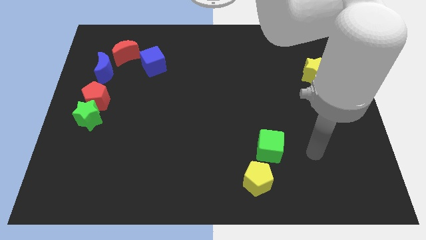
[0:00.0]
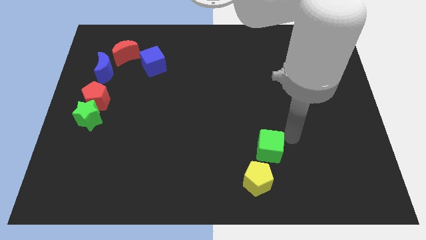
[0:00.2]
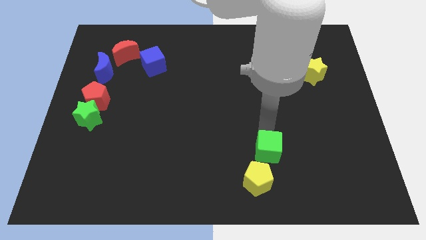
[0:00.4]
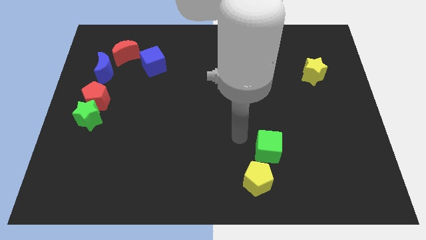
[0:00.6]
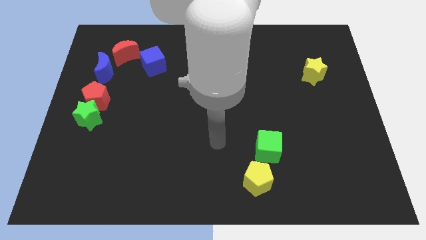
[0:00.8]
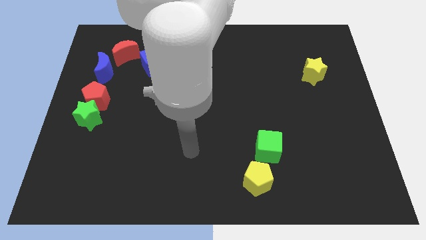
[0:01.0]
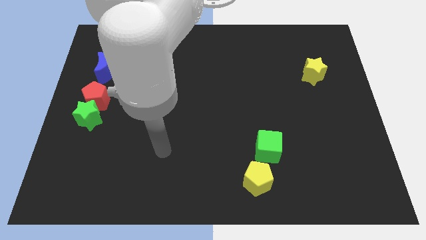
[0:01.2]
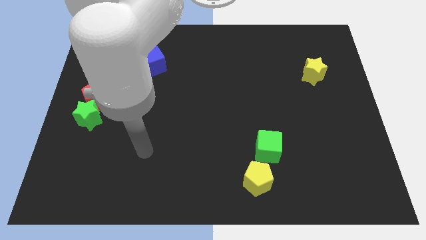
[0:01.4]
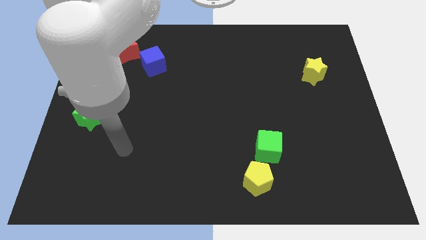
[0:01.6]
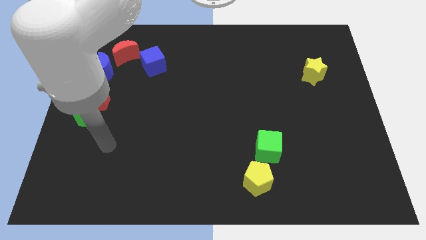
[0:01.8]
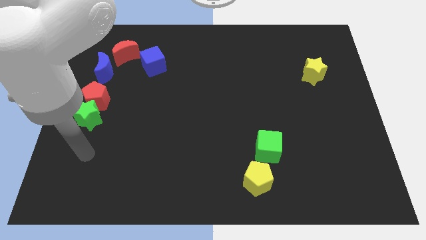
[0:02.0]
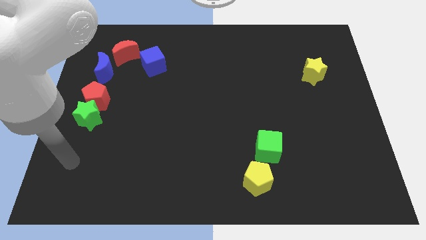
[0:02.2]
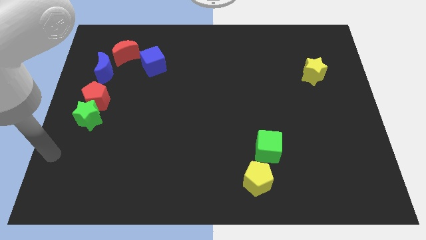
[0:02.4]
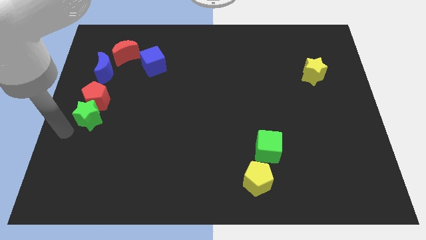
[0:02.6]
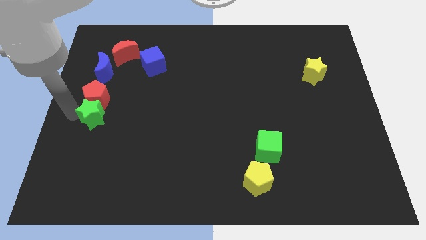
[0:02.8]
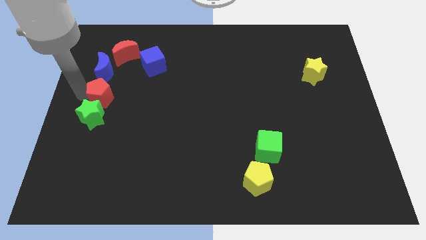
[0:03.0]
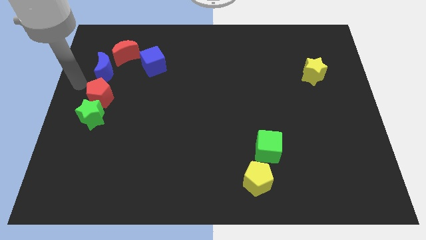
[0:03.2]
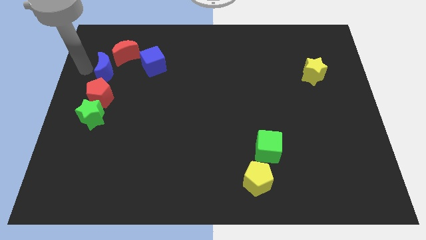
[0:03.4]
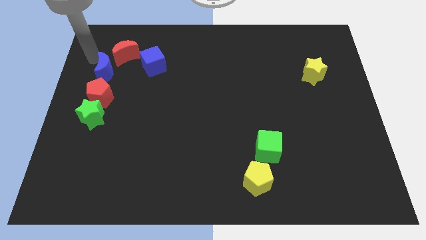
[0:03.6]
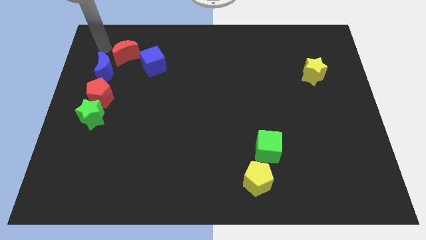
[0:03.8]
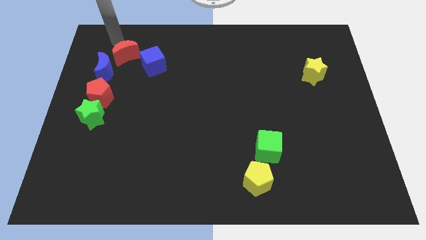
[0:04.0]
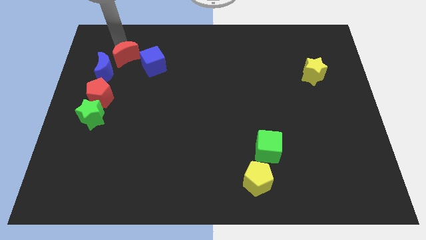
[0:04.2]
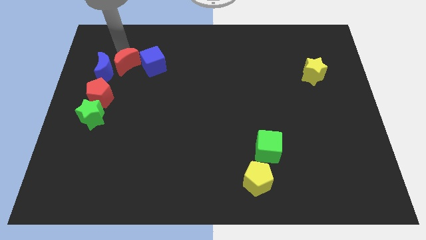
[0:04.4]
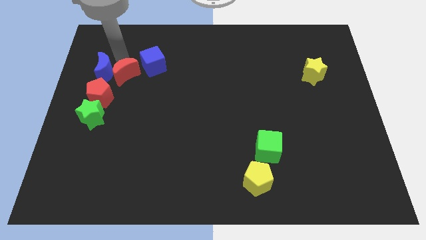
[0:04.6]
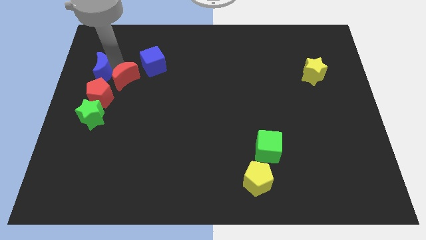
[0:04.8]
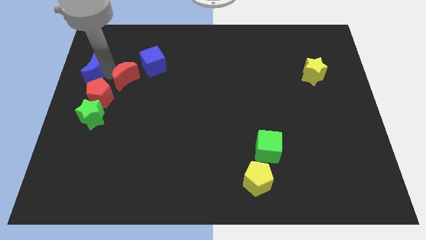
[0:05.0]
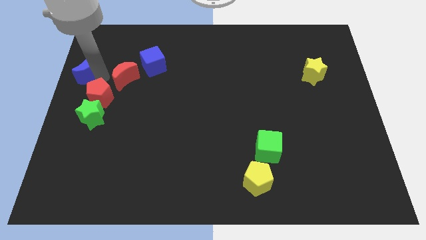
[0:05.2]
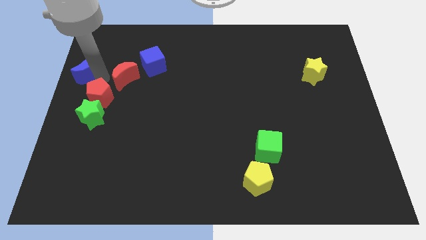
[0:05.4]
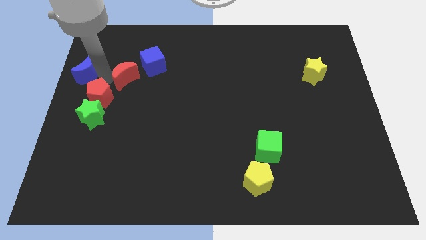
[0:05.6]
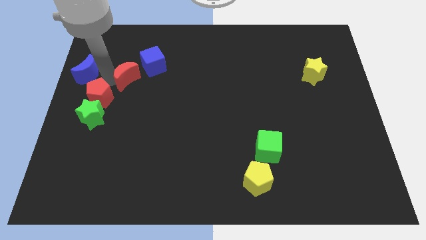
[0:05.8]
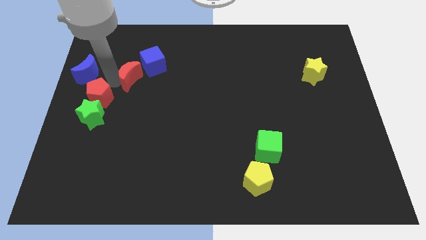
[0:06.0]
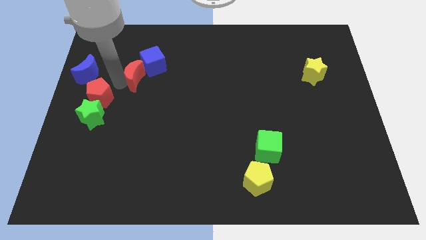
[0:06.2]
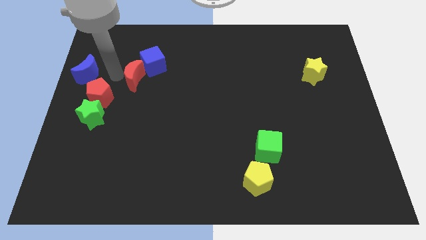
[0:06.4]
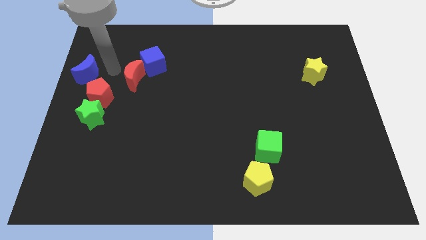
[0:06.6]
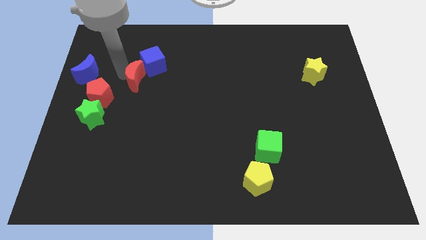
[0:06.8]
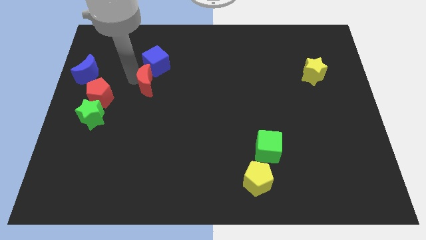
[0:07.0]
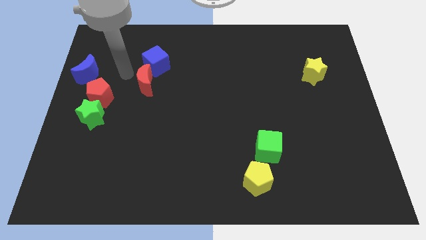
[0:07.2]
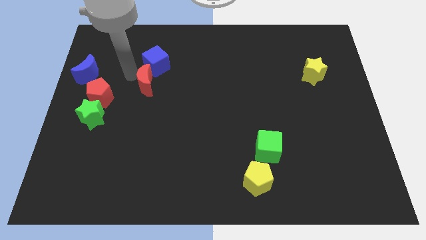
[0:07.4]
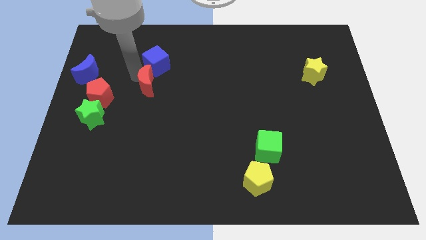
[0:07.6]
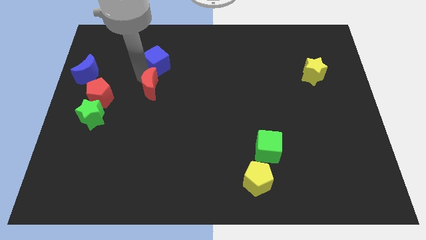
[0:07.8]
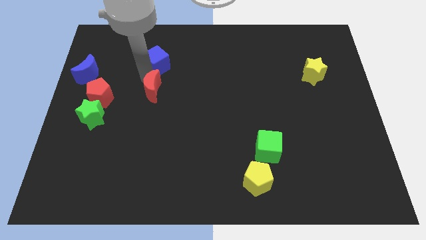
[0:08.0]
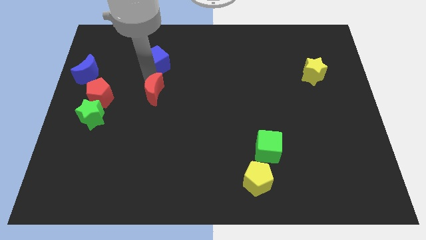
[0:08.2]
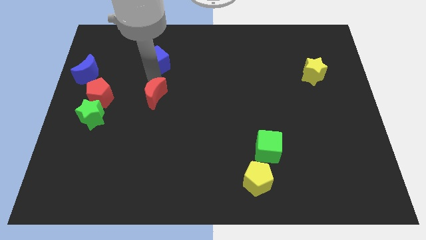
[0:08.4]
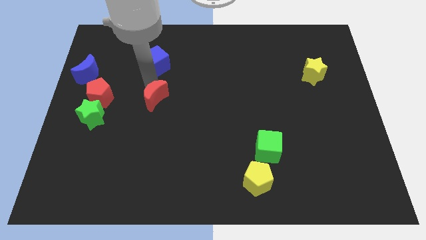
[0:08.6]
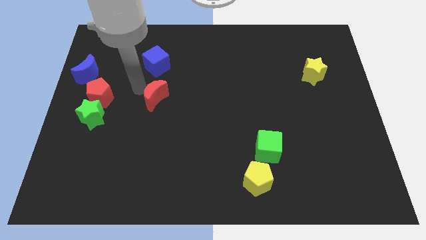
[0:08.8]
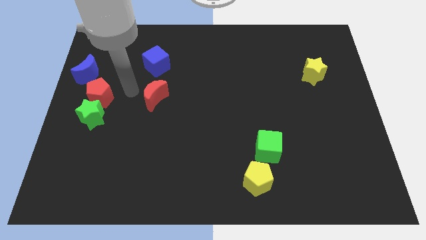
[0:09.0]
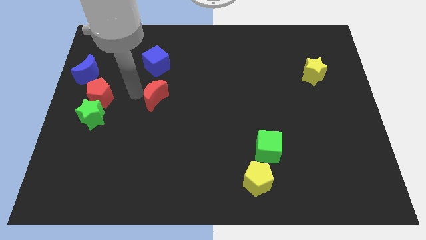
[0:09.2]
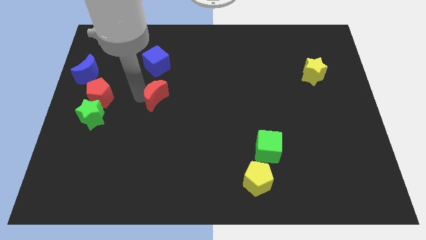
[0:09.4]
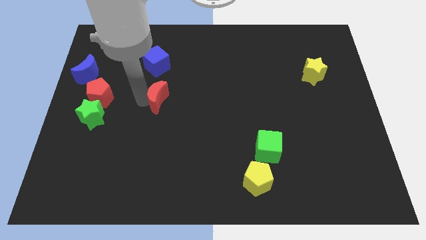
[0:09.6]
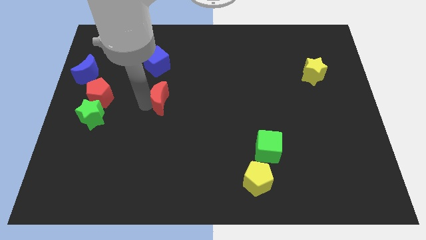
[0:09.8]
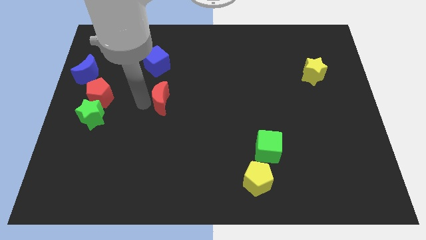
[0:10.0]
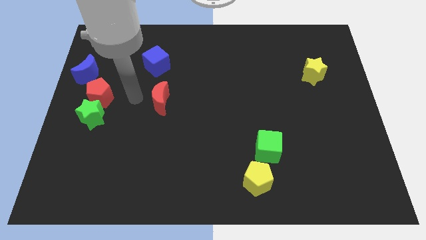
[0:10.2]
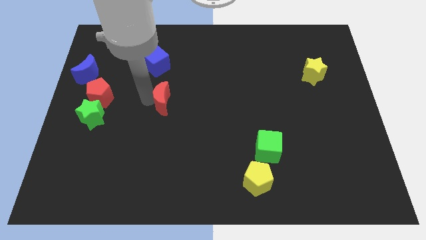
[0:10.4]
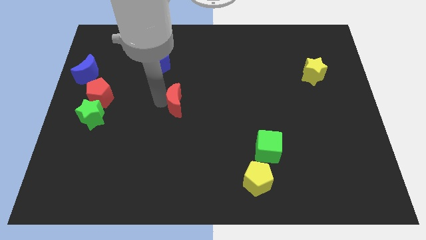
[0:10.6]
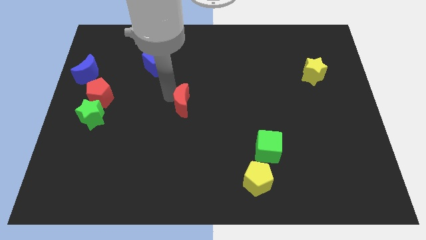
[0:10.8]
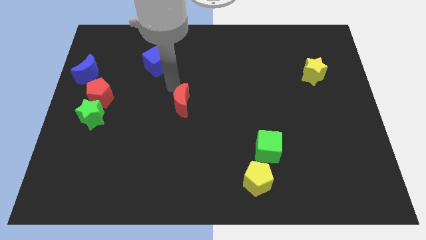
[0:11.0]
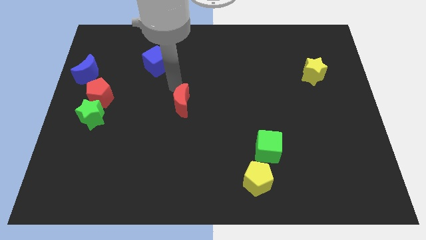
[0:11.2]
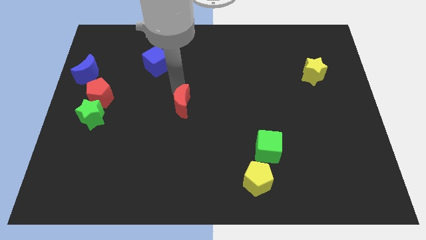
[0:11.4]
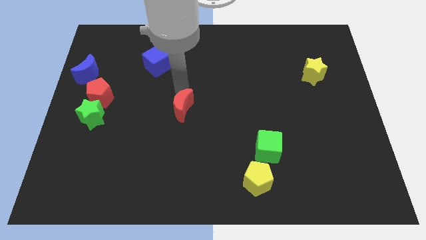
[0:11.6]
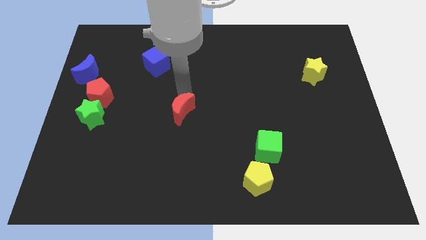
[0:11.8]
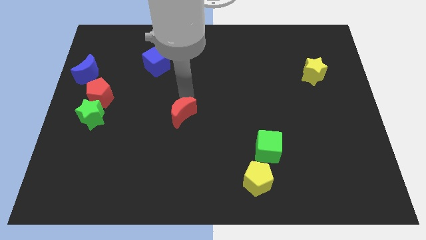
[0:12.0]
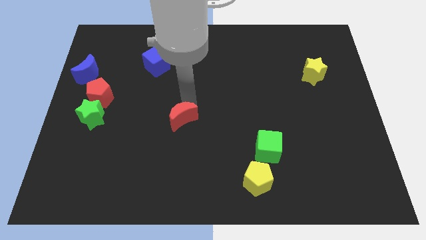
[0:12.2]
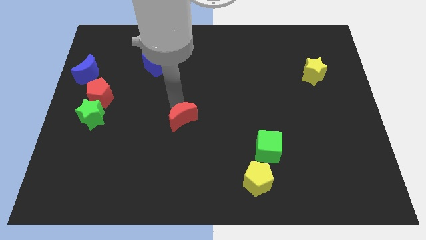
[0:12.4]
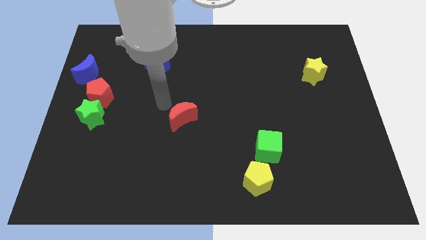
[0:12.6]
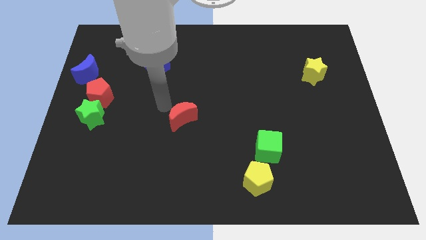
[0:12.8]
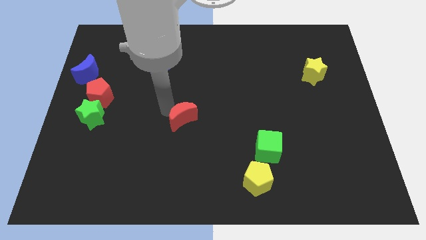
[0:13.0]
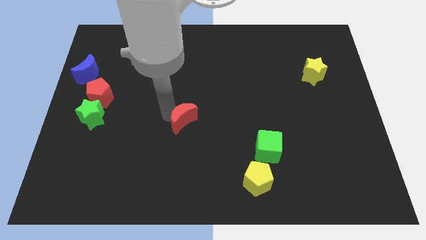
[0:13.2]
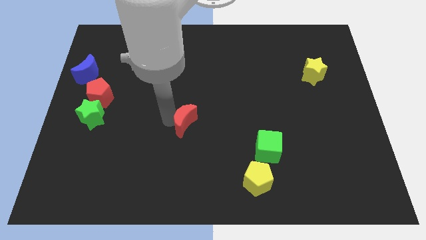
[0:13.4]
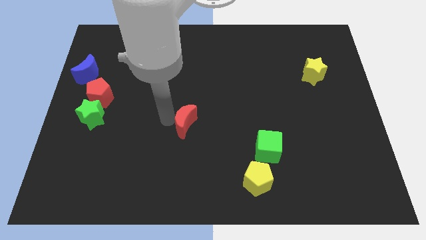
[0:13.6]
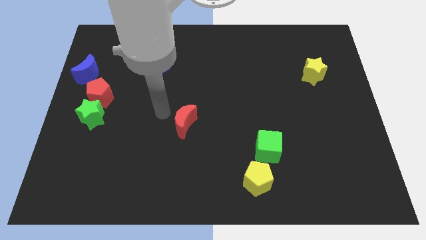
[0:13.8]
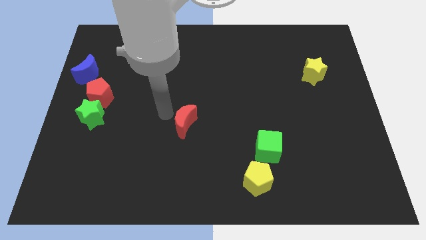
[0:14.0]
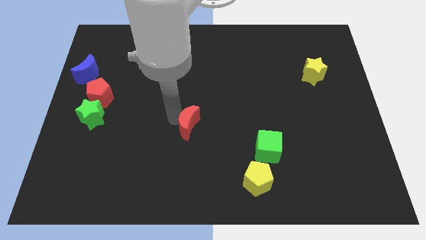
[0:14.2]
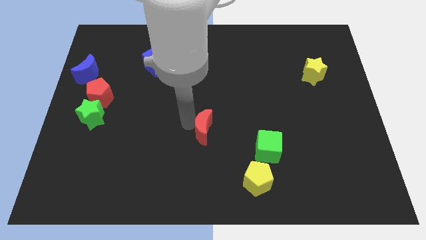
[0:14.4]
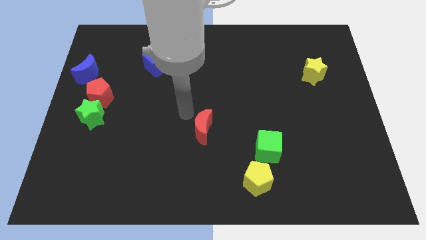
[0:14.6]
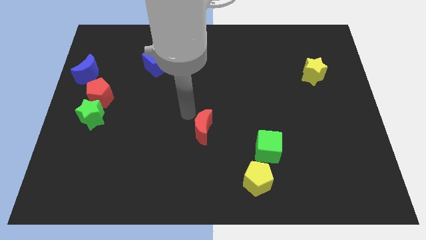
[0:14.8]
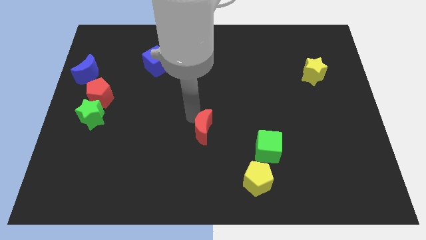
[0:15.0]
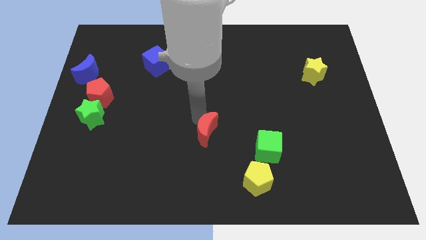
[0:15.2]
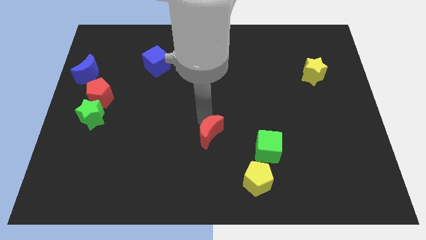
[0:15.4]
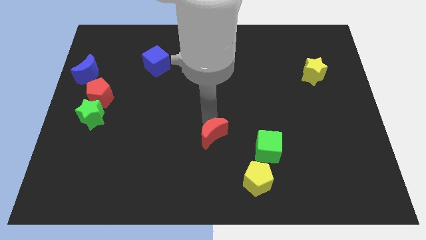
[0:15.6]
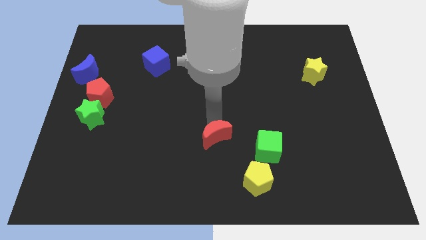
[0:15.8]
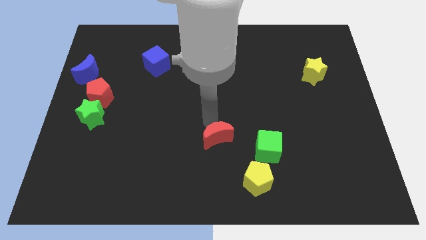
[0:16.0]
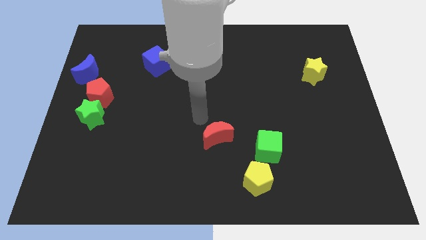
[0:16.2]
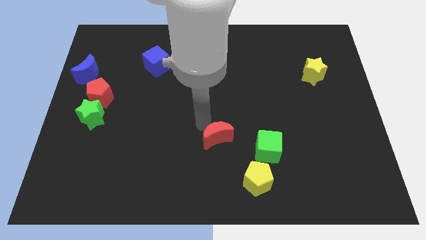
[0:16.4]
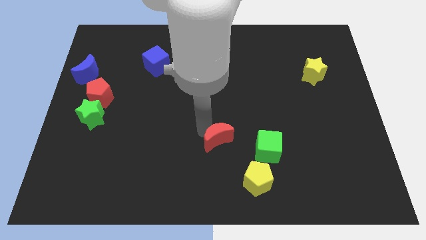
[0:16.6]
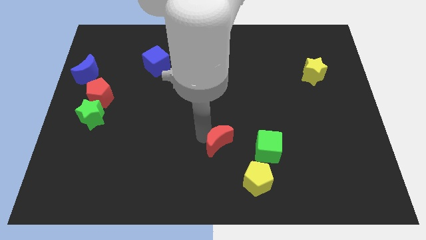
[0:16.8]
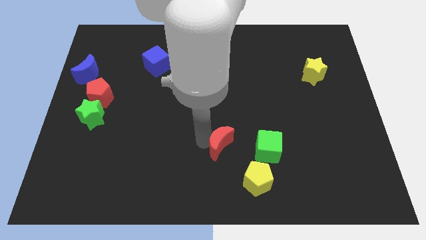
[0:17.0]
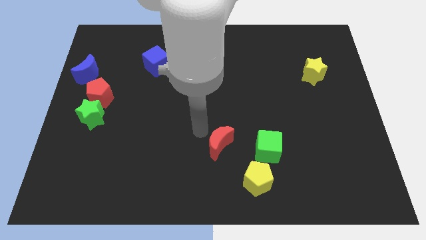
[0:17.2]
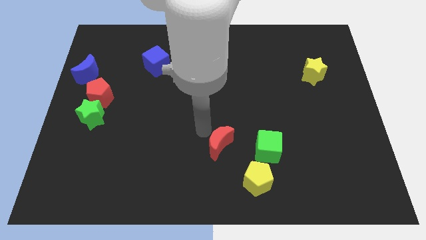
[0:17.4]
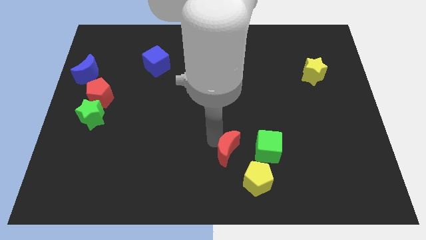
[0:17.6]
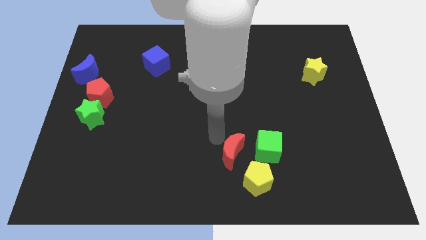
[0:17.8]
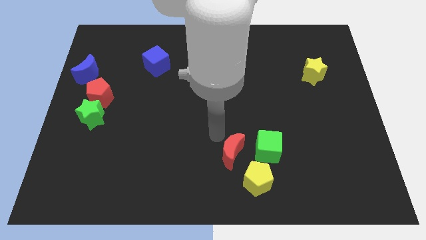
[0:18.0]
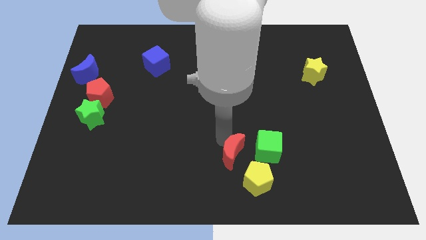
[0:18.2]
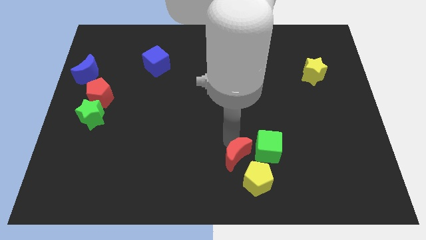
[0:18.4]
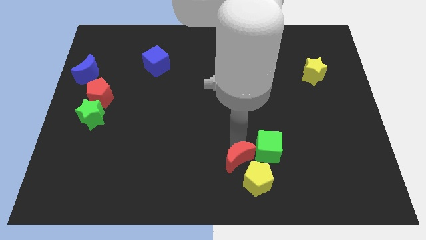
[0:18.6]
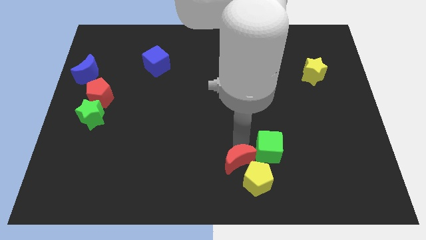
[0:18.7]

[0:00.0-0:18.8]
slide the red moon towards the yellow pentagon
